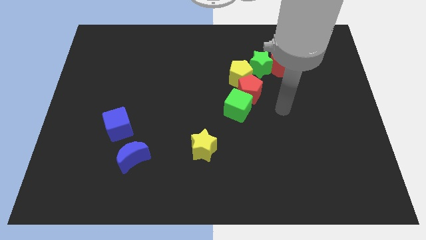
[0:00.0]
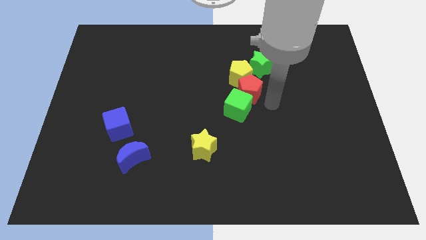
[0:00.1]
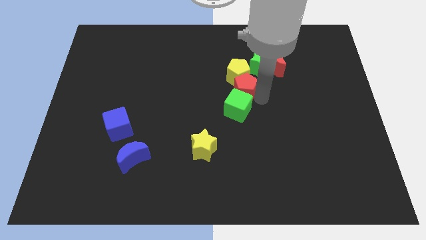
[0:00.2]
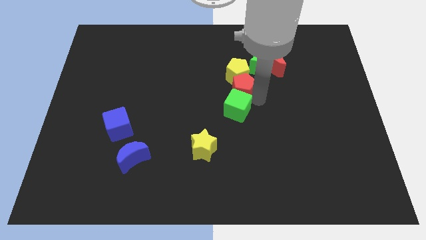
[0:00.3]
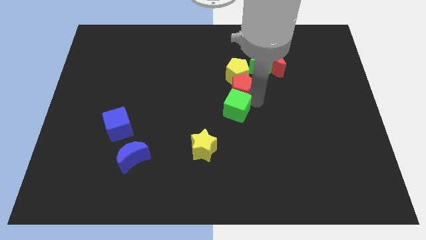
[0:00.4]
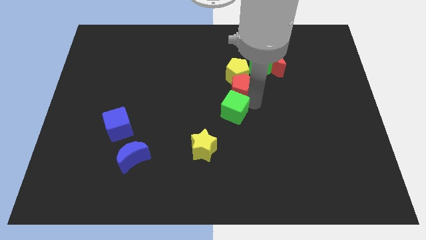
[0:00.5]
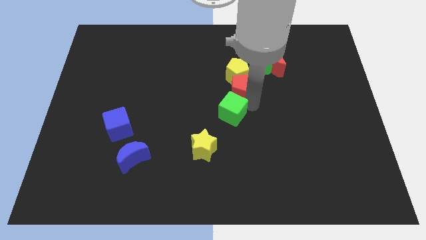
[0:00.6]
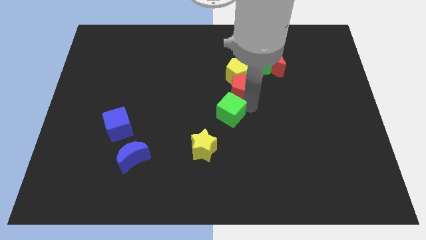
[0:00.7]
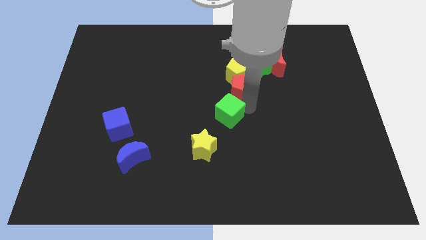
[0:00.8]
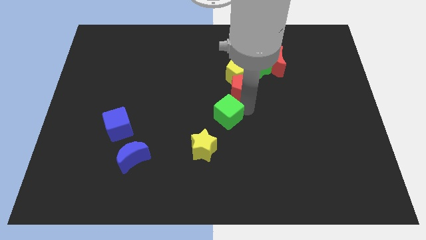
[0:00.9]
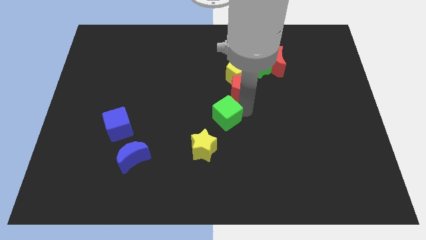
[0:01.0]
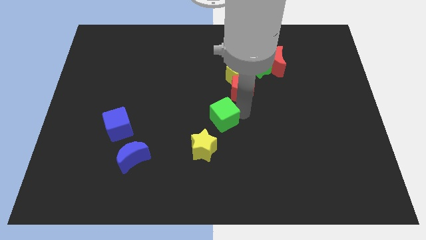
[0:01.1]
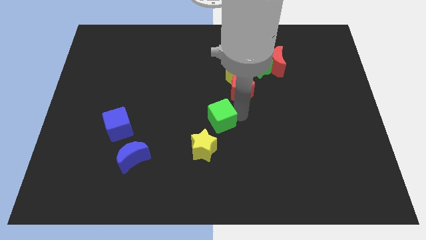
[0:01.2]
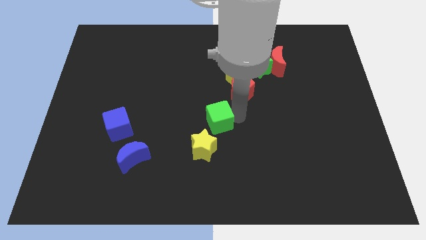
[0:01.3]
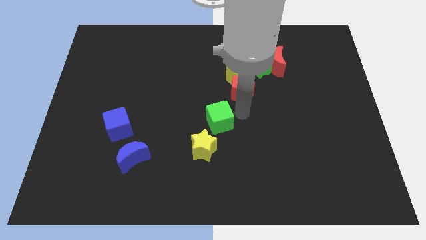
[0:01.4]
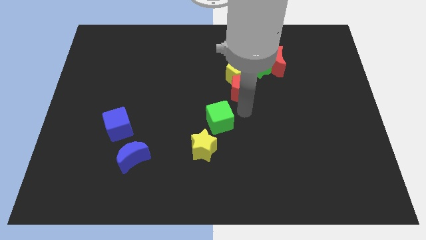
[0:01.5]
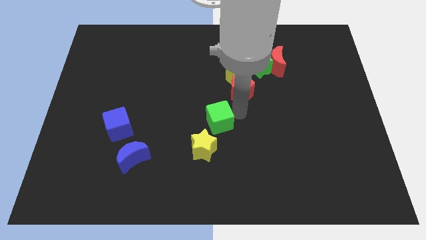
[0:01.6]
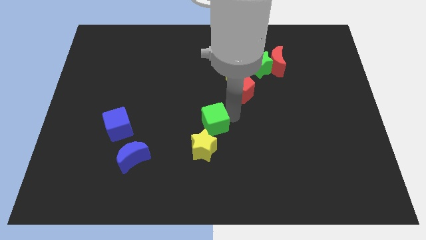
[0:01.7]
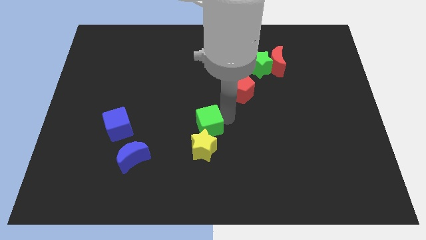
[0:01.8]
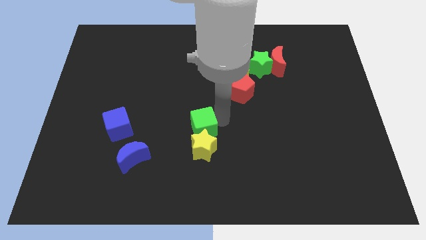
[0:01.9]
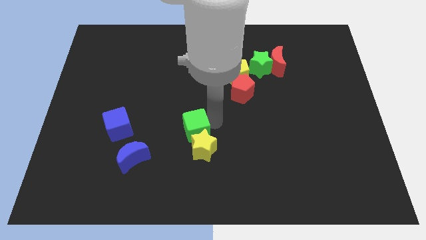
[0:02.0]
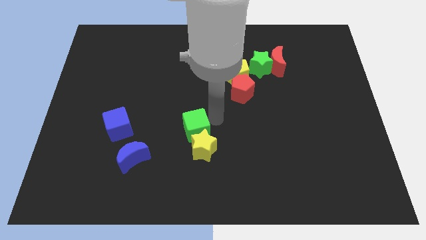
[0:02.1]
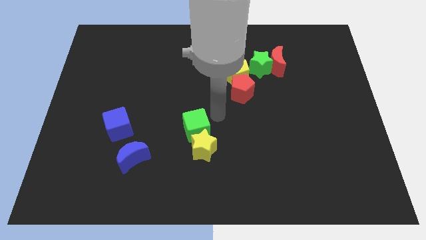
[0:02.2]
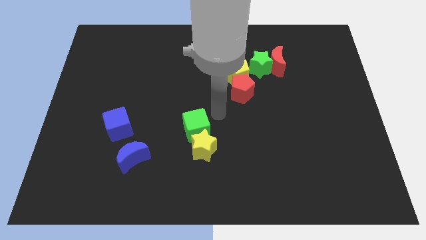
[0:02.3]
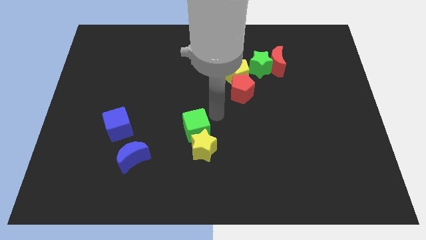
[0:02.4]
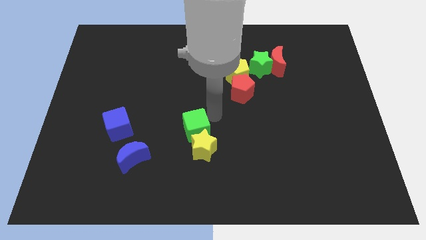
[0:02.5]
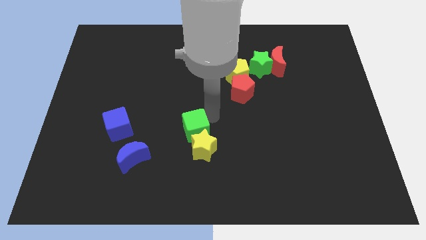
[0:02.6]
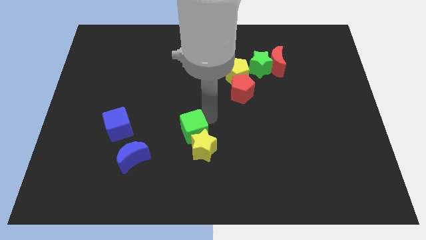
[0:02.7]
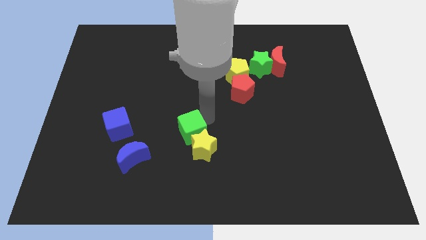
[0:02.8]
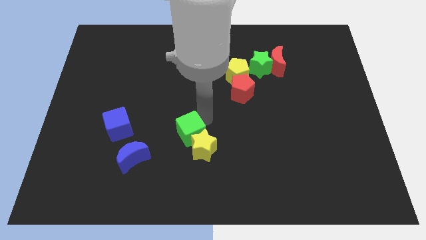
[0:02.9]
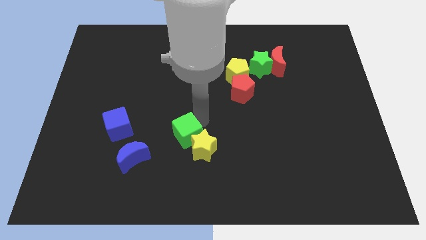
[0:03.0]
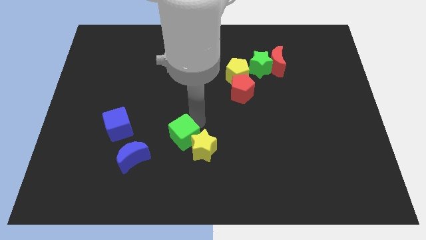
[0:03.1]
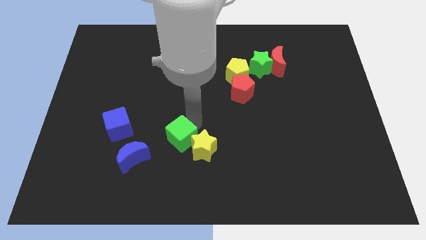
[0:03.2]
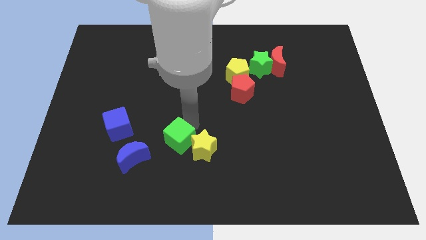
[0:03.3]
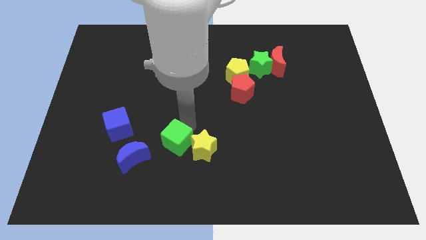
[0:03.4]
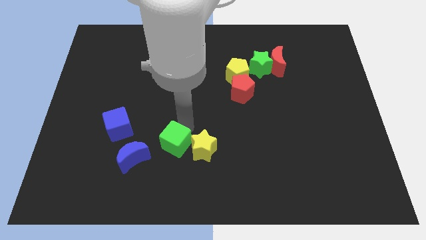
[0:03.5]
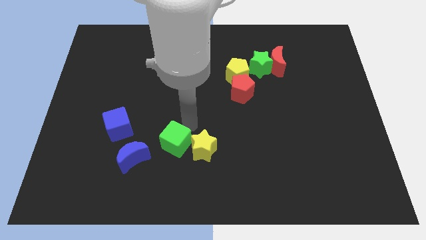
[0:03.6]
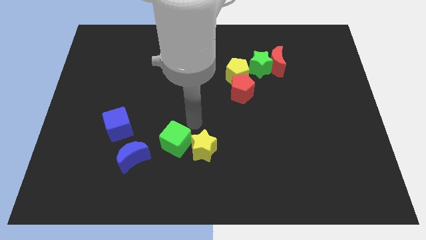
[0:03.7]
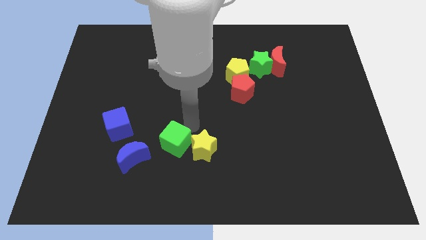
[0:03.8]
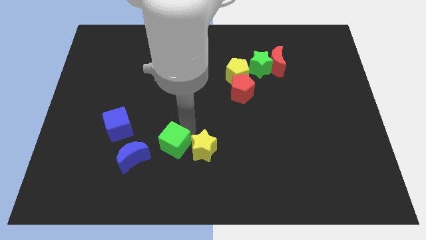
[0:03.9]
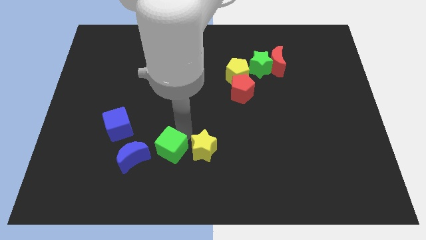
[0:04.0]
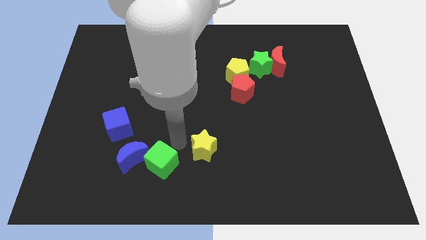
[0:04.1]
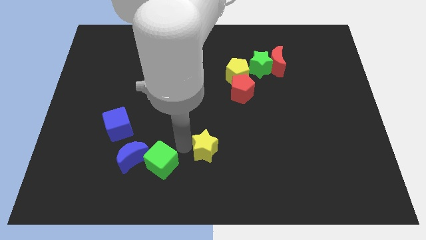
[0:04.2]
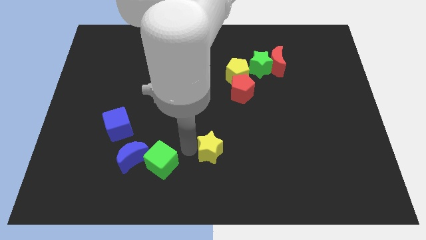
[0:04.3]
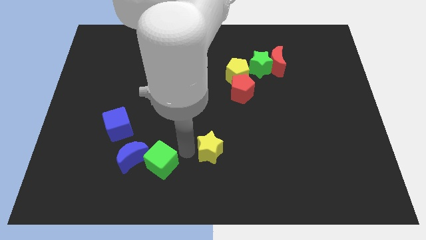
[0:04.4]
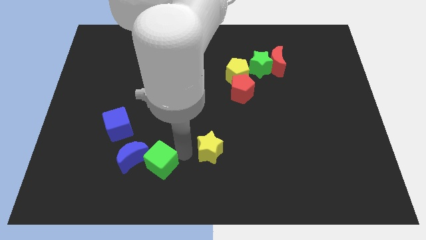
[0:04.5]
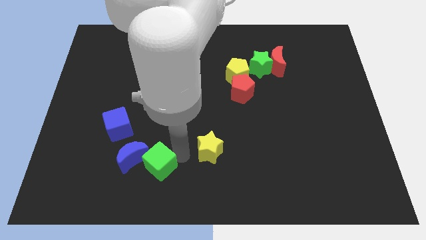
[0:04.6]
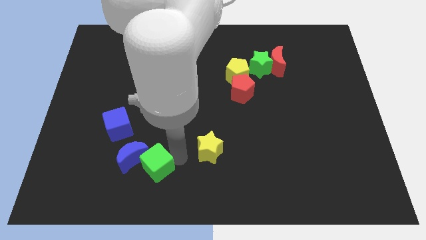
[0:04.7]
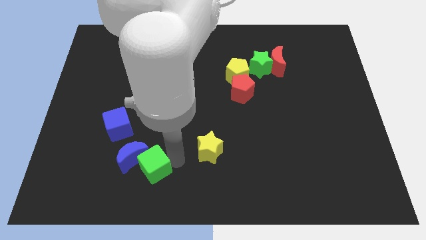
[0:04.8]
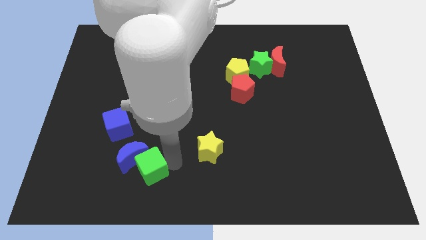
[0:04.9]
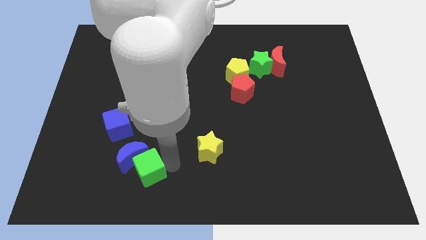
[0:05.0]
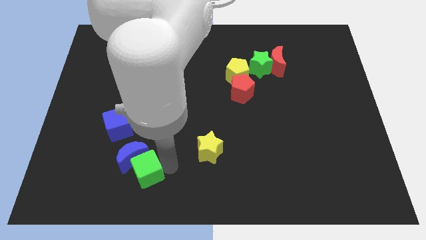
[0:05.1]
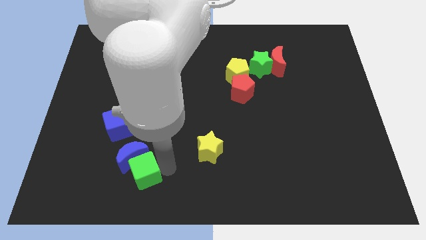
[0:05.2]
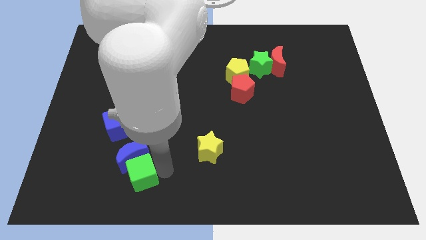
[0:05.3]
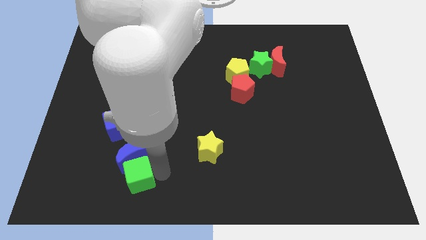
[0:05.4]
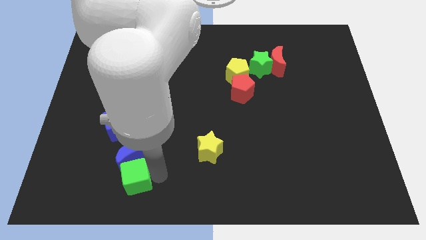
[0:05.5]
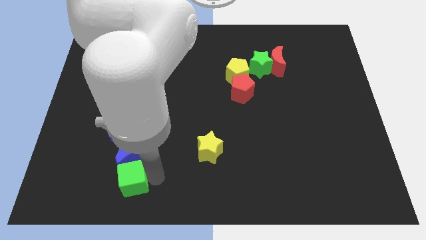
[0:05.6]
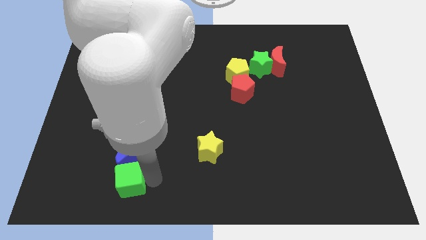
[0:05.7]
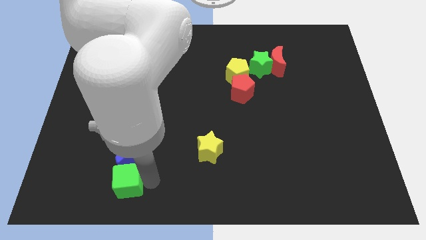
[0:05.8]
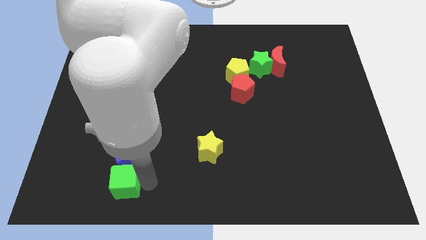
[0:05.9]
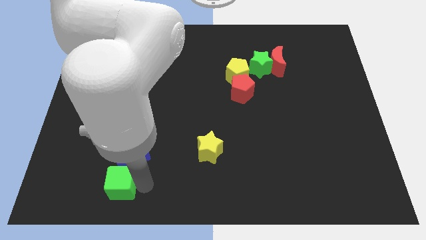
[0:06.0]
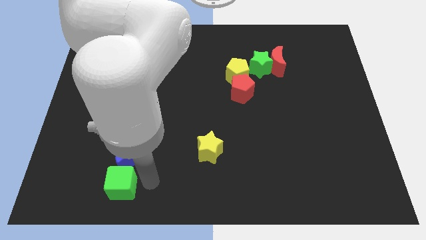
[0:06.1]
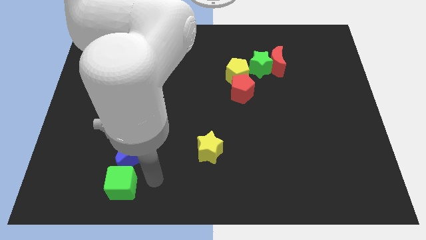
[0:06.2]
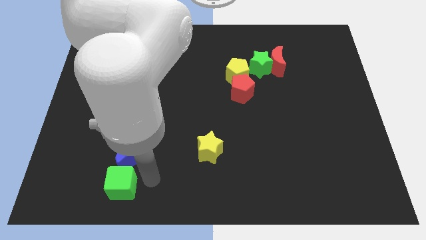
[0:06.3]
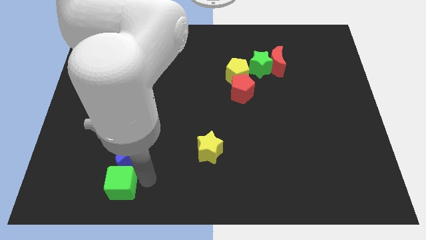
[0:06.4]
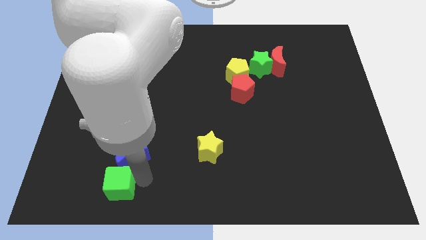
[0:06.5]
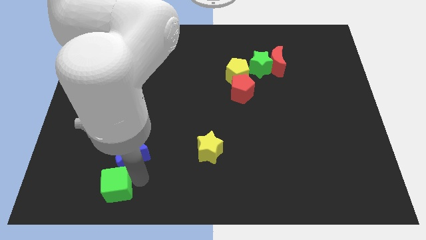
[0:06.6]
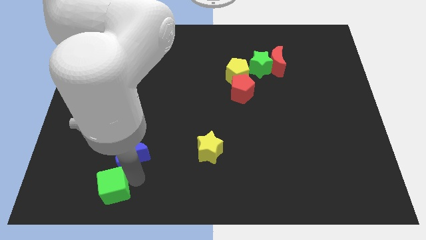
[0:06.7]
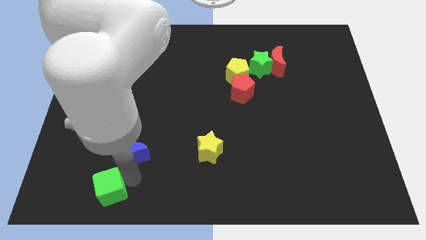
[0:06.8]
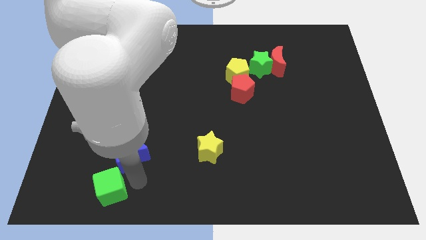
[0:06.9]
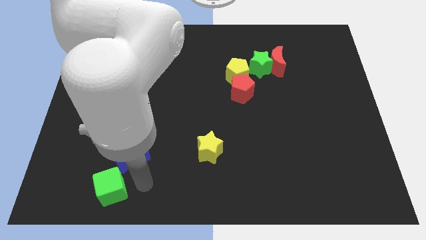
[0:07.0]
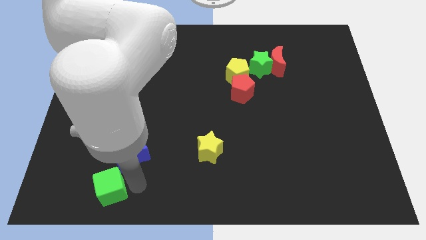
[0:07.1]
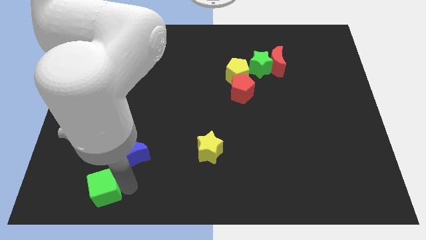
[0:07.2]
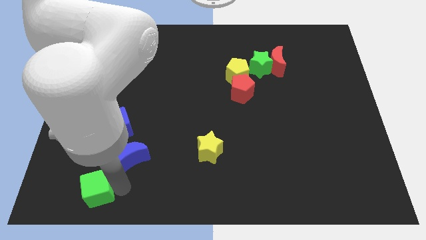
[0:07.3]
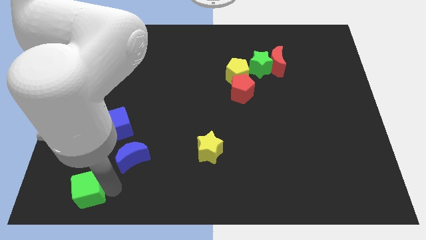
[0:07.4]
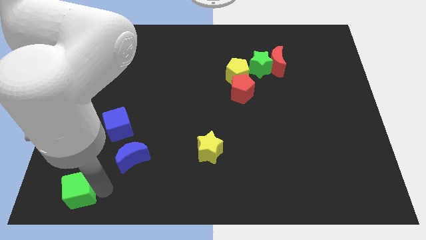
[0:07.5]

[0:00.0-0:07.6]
put the green cube to the bottom left corner
